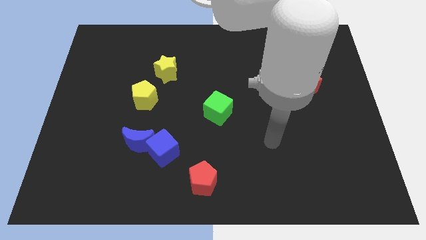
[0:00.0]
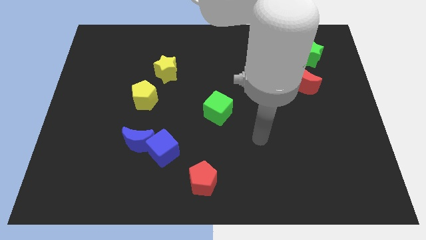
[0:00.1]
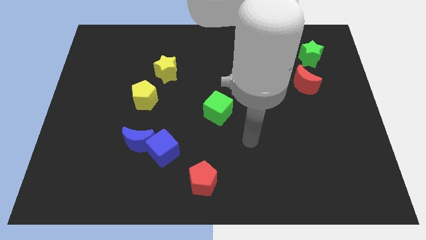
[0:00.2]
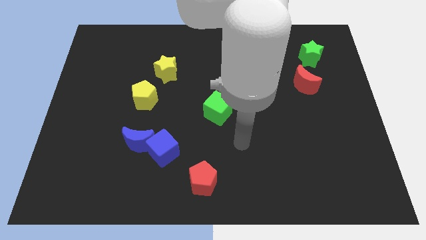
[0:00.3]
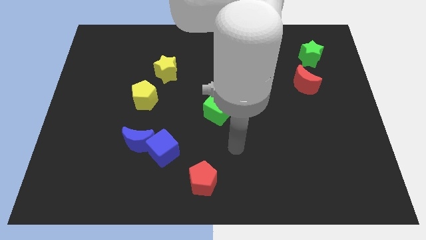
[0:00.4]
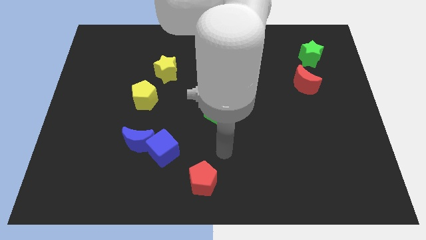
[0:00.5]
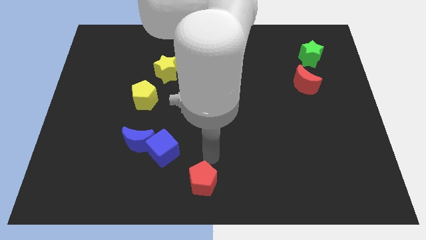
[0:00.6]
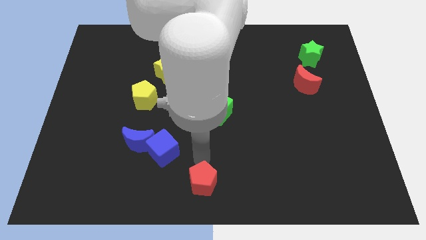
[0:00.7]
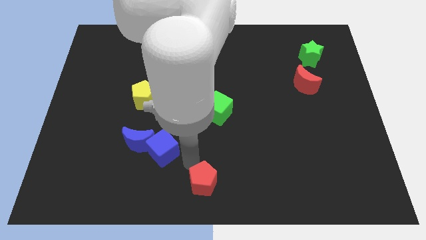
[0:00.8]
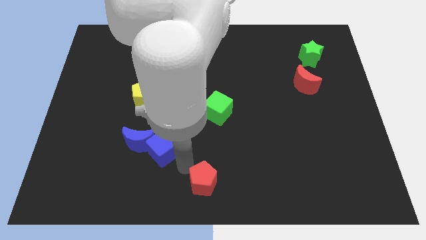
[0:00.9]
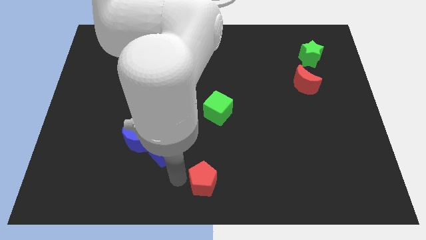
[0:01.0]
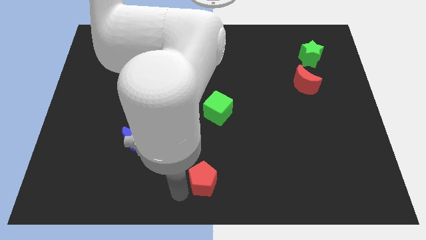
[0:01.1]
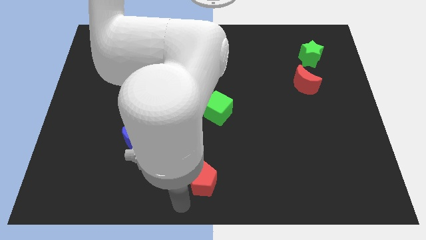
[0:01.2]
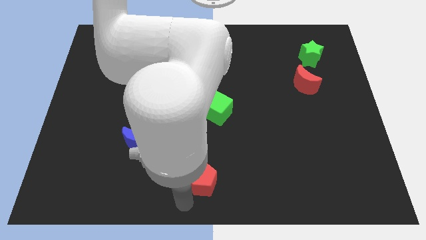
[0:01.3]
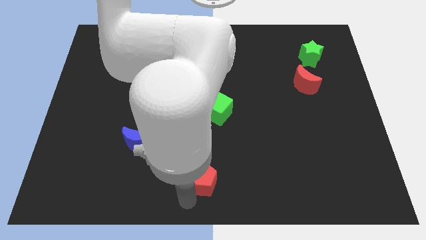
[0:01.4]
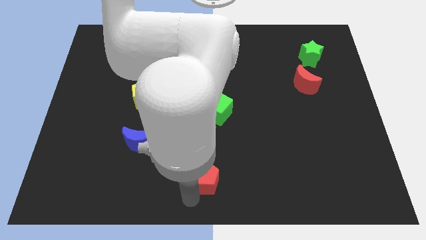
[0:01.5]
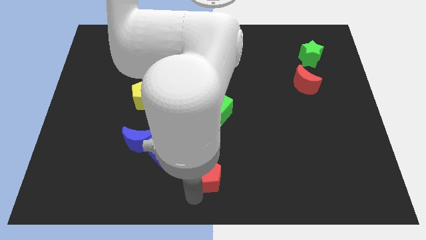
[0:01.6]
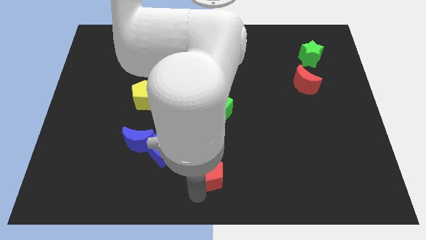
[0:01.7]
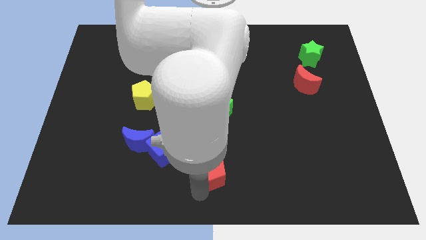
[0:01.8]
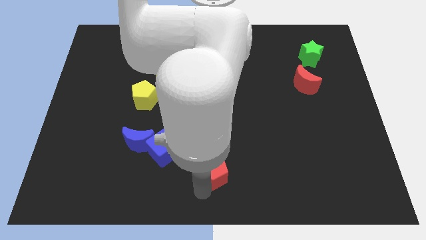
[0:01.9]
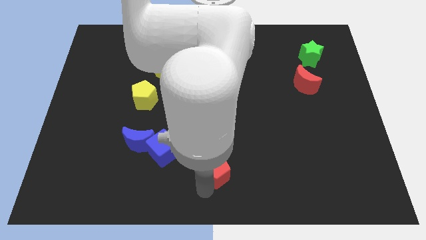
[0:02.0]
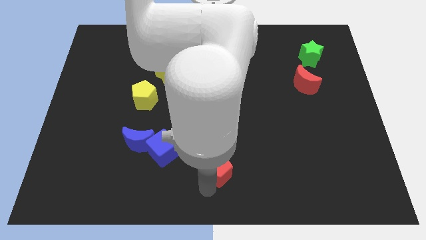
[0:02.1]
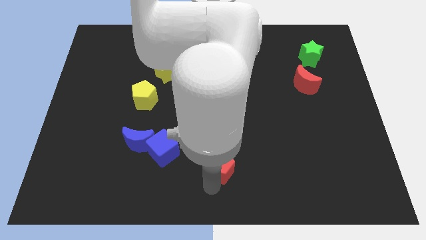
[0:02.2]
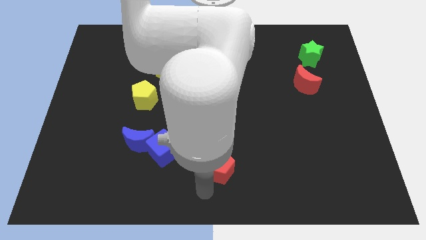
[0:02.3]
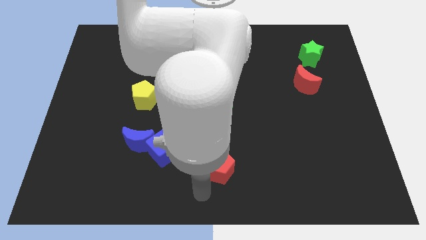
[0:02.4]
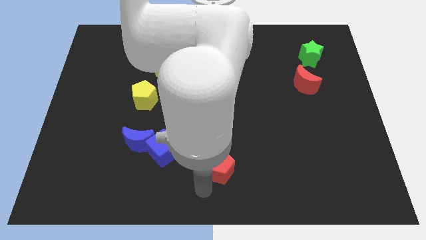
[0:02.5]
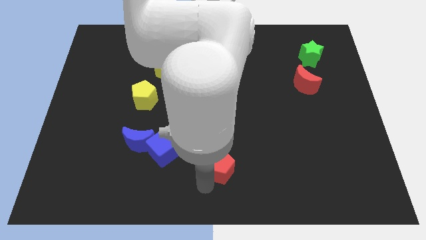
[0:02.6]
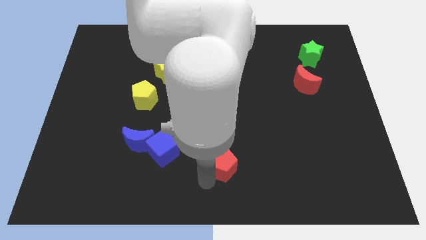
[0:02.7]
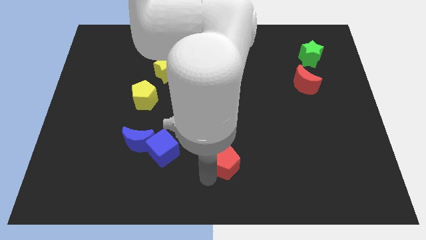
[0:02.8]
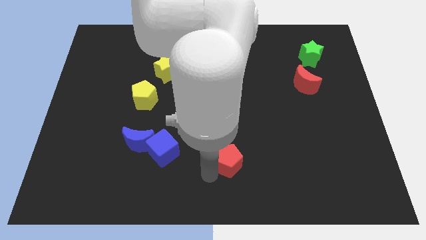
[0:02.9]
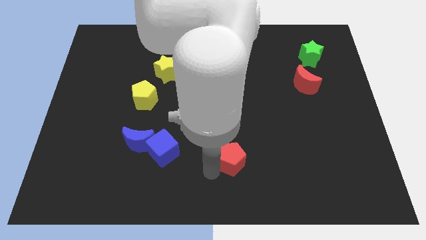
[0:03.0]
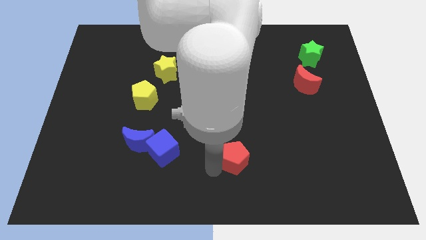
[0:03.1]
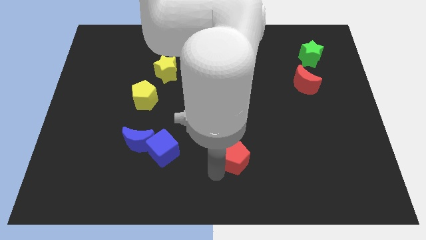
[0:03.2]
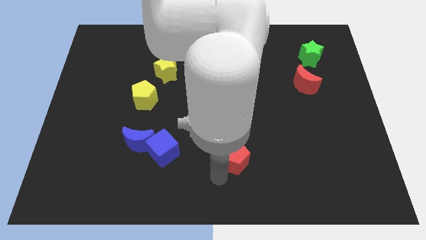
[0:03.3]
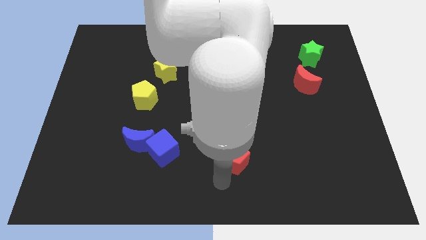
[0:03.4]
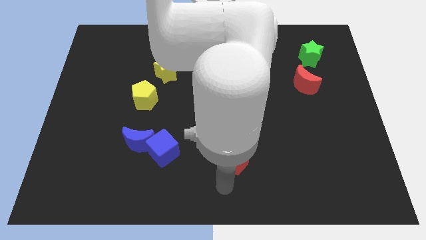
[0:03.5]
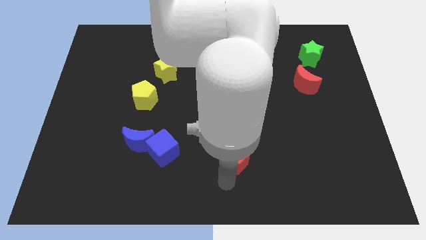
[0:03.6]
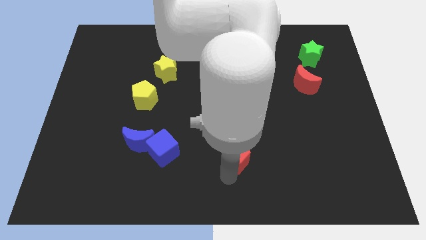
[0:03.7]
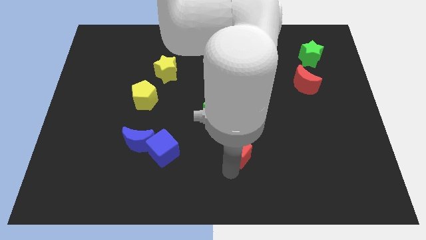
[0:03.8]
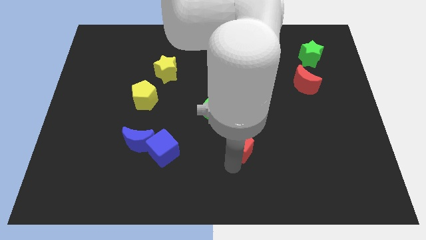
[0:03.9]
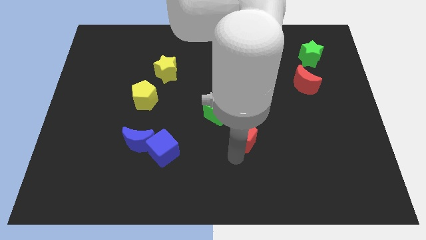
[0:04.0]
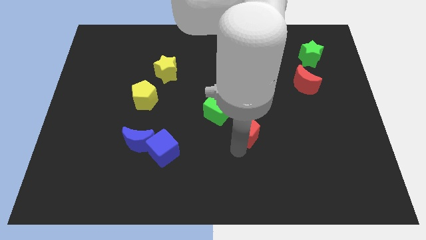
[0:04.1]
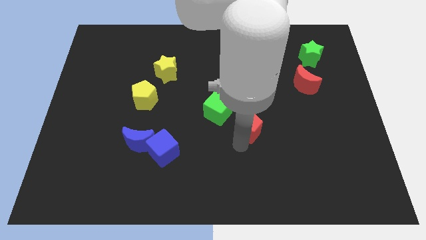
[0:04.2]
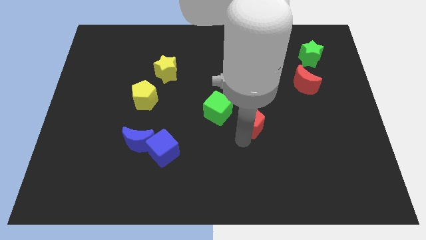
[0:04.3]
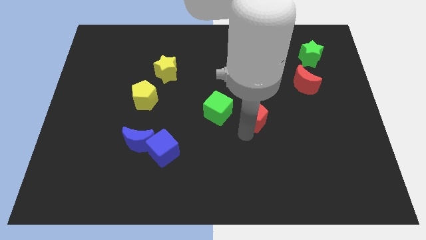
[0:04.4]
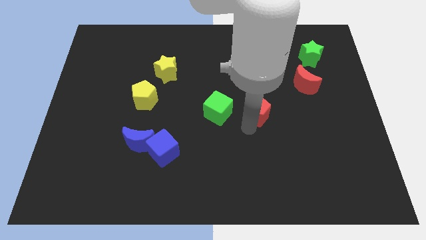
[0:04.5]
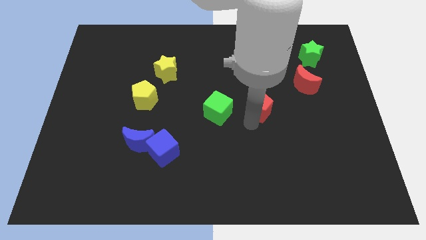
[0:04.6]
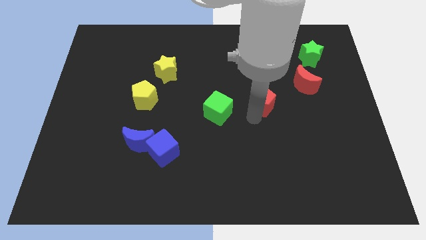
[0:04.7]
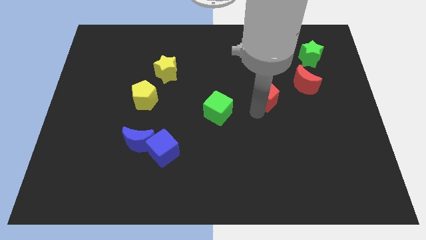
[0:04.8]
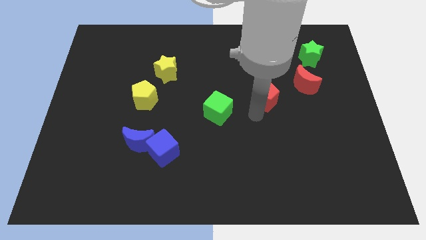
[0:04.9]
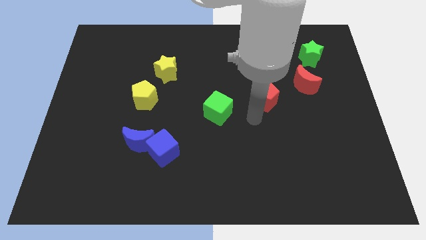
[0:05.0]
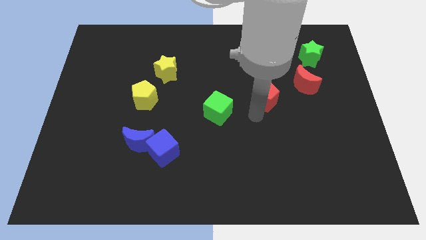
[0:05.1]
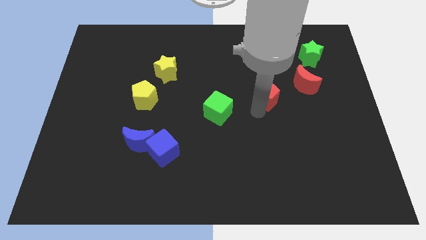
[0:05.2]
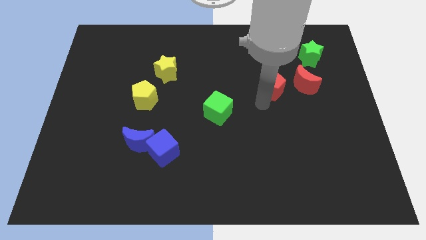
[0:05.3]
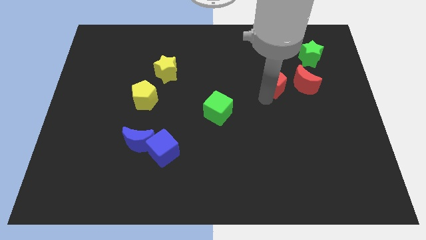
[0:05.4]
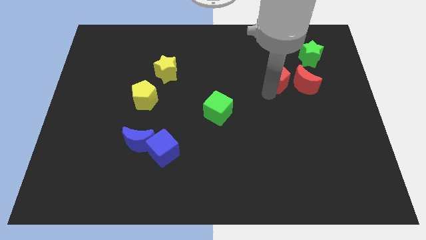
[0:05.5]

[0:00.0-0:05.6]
push the red pentagon diagonally up and to the left of the red moon

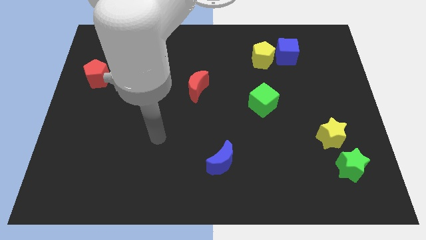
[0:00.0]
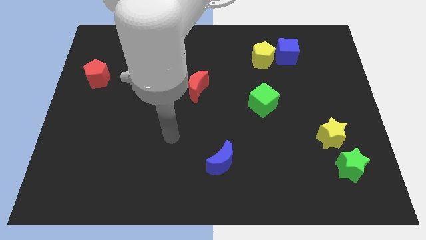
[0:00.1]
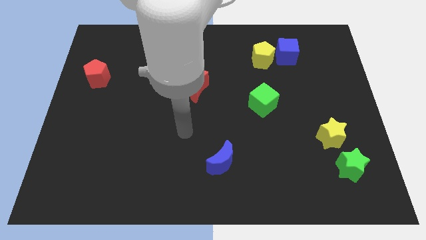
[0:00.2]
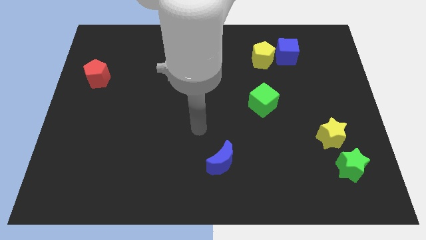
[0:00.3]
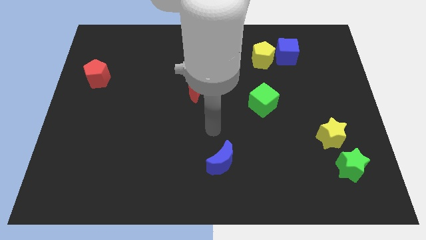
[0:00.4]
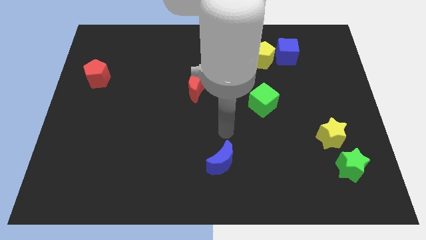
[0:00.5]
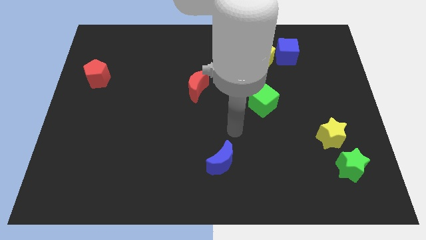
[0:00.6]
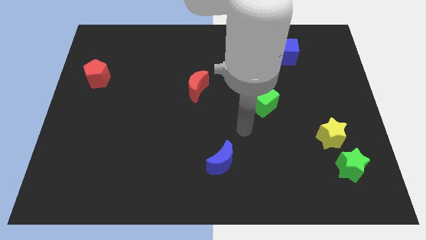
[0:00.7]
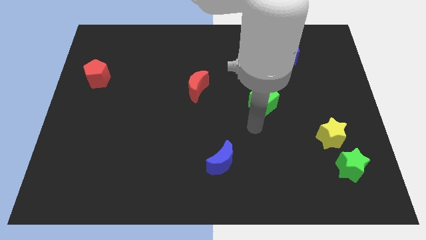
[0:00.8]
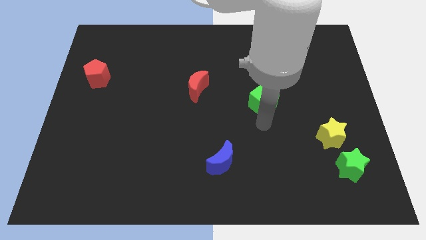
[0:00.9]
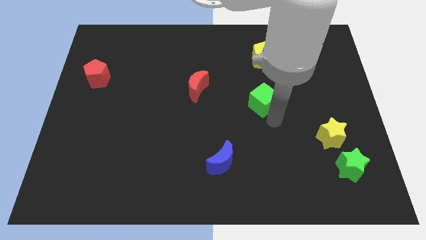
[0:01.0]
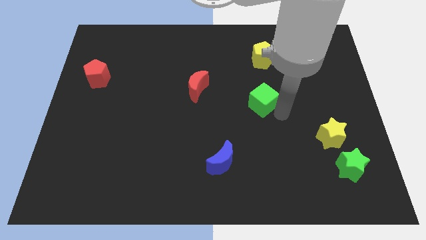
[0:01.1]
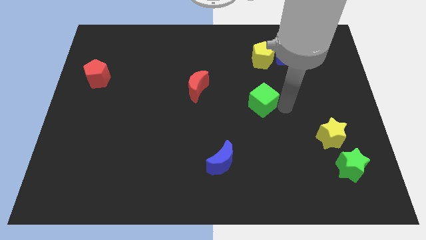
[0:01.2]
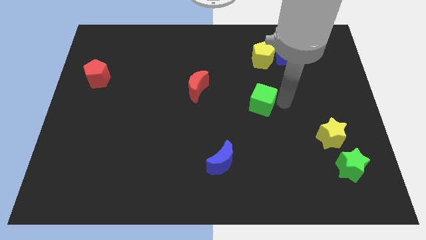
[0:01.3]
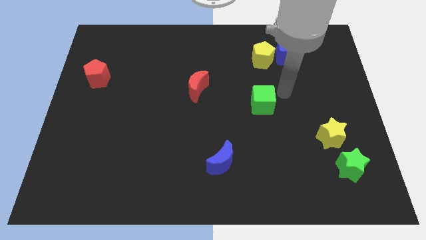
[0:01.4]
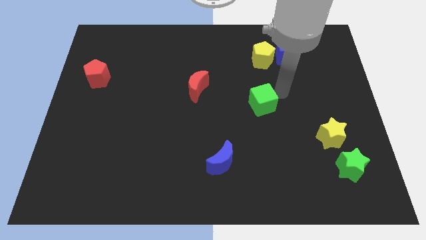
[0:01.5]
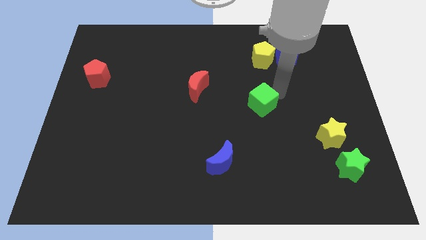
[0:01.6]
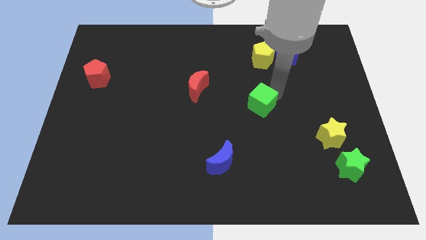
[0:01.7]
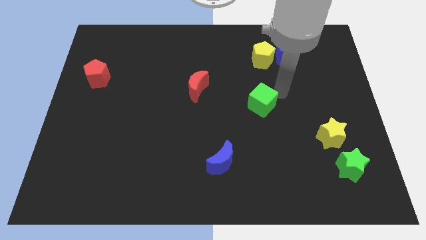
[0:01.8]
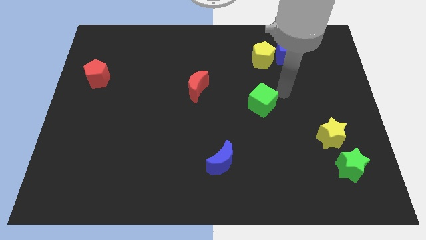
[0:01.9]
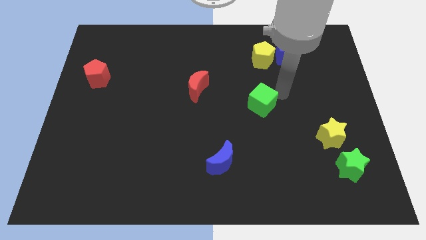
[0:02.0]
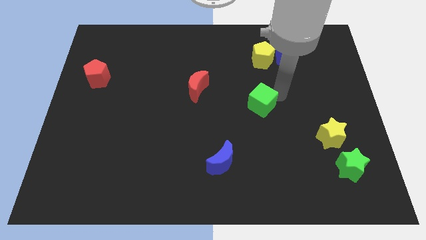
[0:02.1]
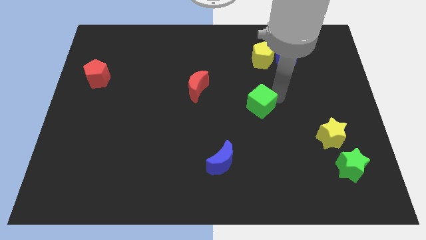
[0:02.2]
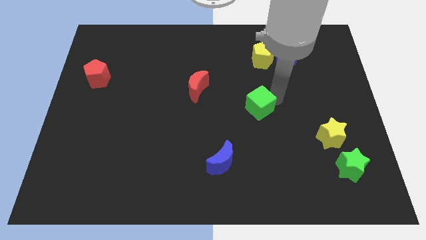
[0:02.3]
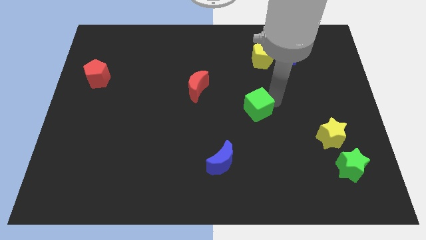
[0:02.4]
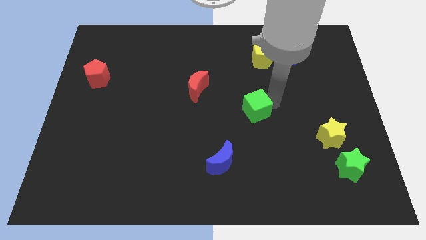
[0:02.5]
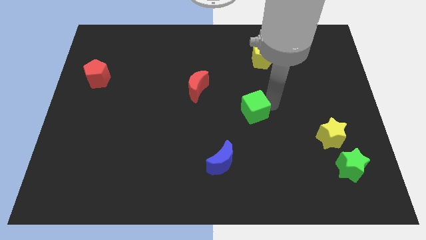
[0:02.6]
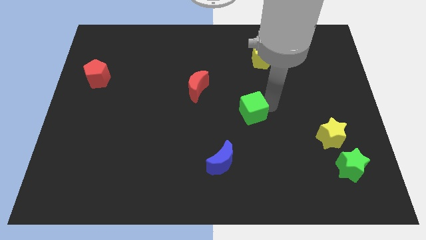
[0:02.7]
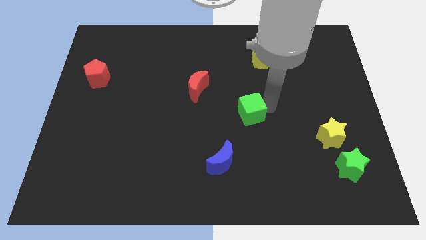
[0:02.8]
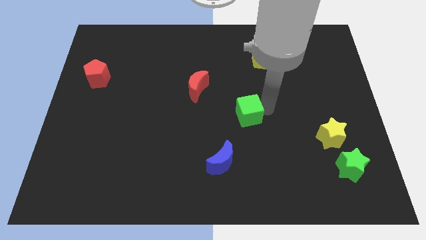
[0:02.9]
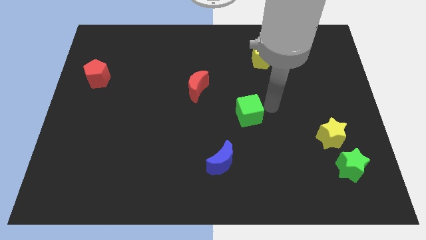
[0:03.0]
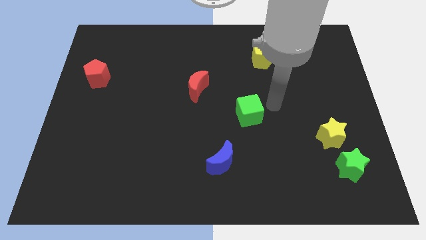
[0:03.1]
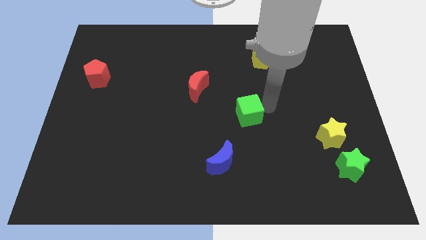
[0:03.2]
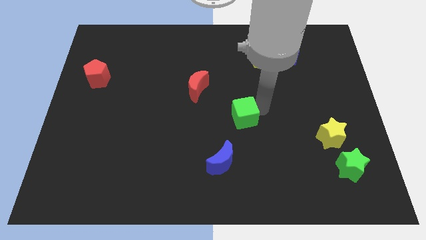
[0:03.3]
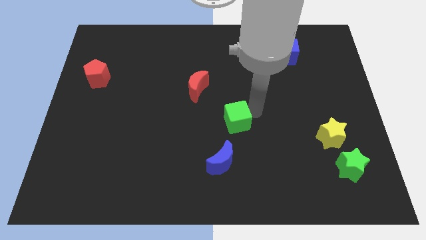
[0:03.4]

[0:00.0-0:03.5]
slide the green cube to the top side of the blue moon
